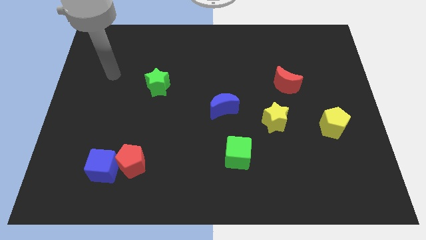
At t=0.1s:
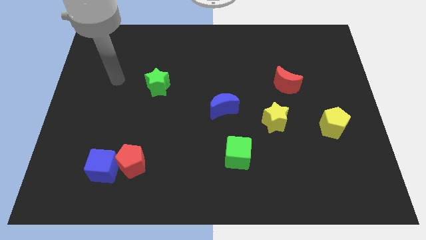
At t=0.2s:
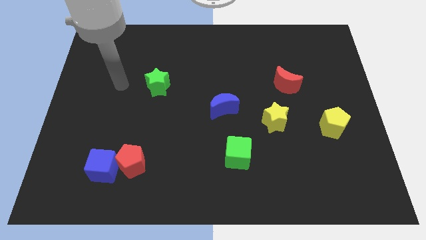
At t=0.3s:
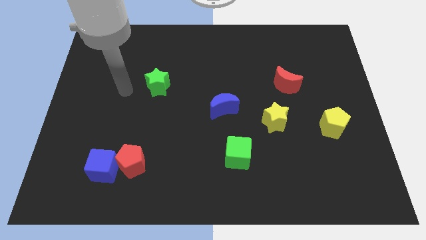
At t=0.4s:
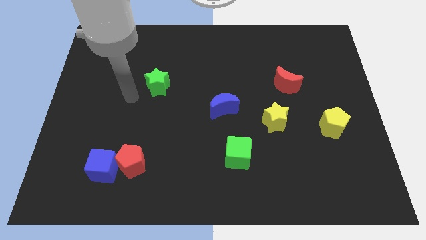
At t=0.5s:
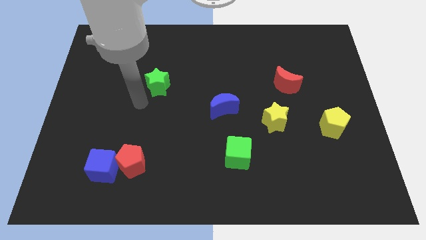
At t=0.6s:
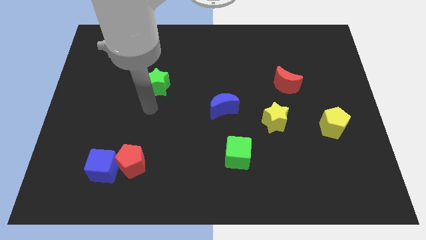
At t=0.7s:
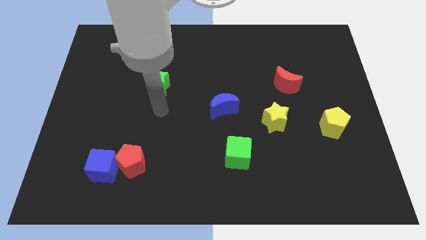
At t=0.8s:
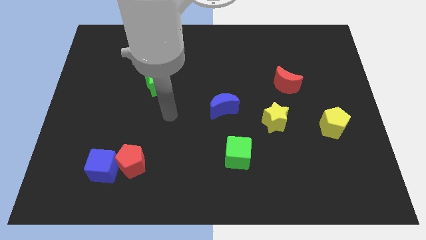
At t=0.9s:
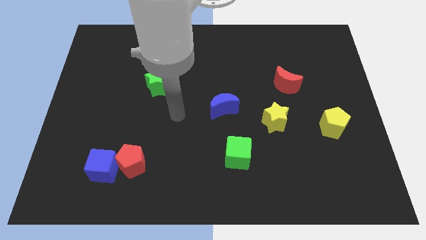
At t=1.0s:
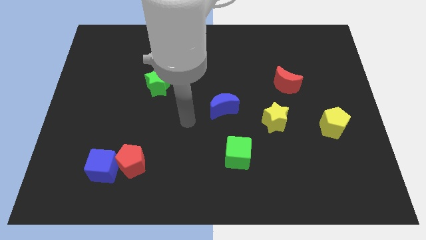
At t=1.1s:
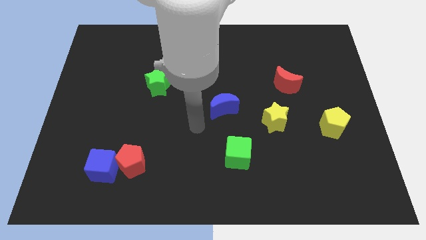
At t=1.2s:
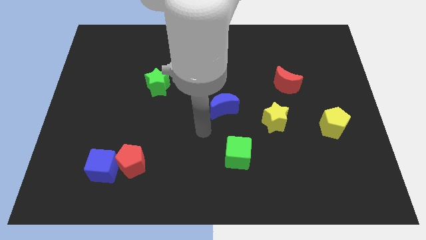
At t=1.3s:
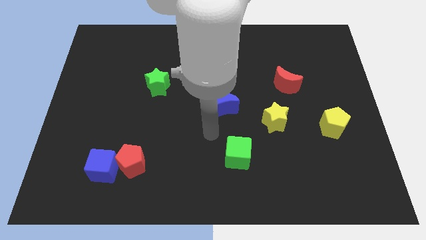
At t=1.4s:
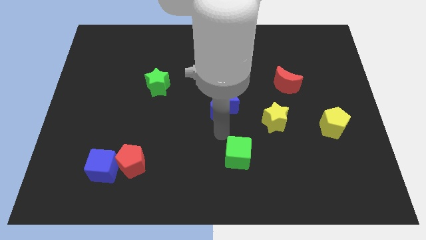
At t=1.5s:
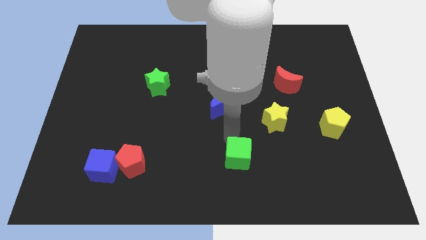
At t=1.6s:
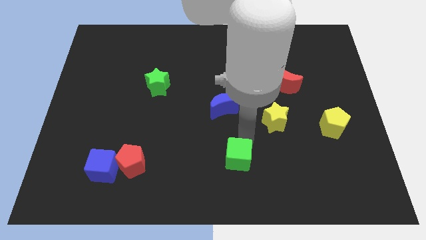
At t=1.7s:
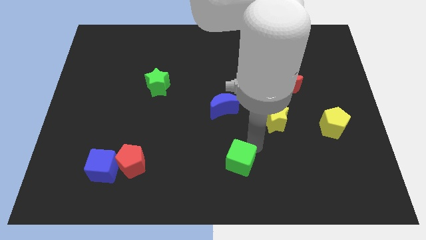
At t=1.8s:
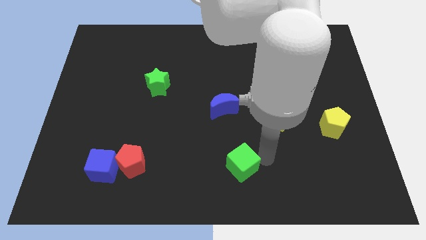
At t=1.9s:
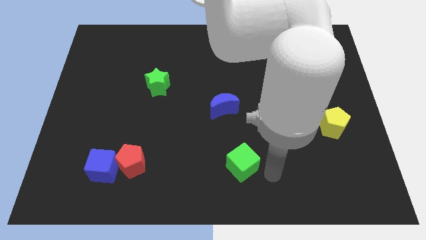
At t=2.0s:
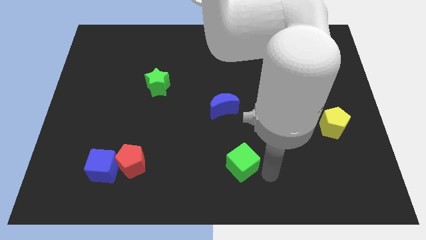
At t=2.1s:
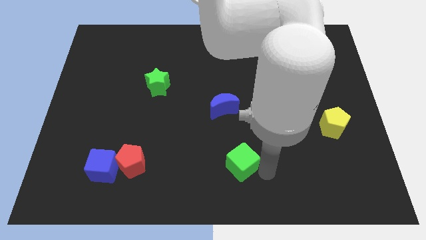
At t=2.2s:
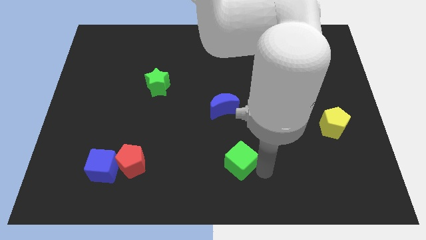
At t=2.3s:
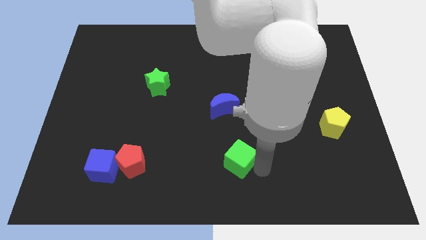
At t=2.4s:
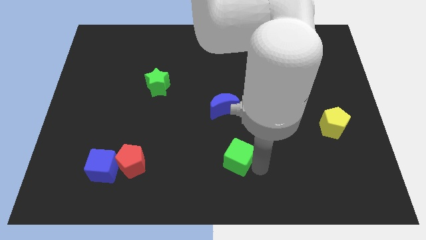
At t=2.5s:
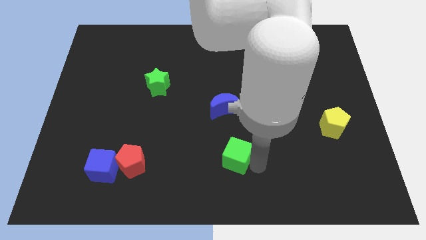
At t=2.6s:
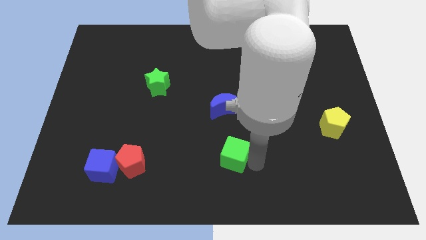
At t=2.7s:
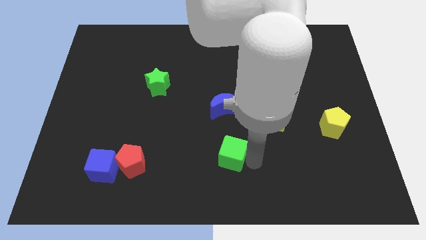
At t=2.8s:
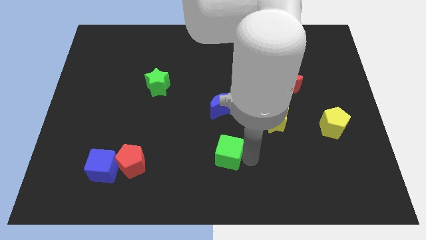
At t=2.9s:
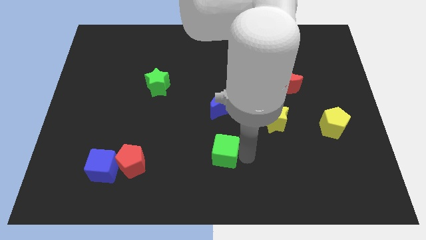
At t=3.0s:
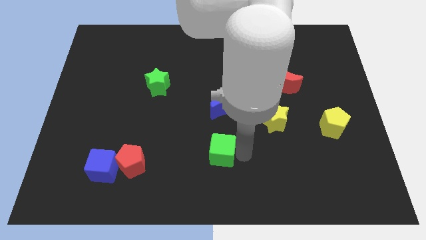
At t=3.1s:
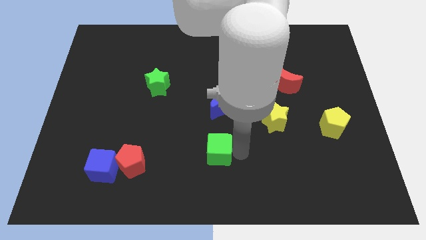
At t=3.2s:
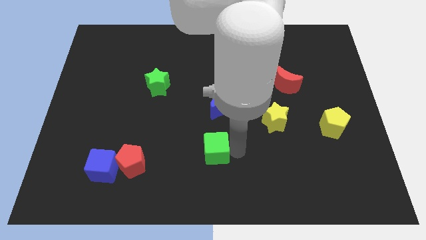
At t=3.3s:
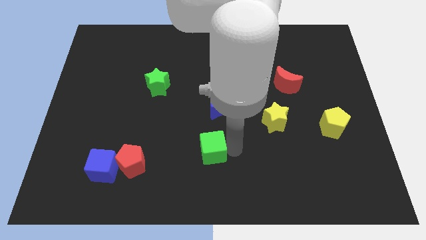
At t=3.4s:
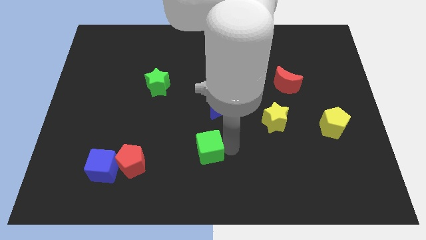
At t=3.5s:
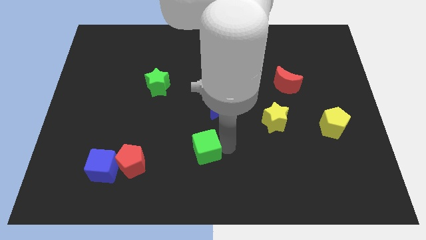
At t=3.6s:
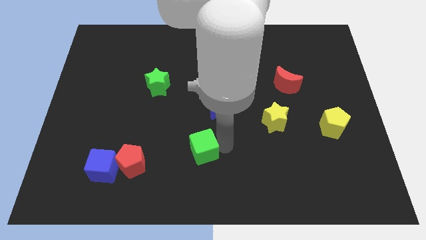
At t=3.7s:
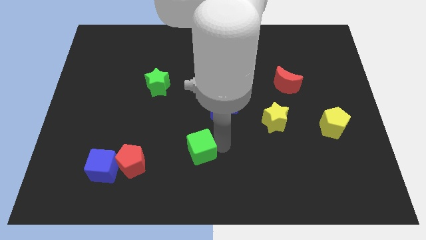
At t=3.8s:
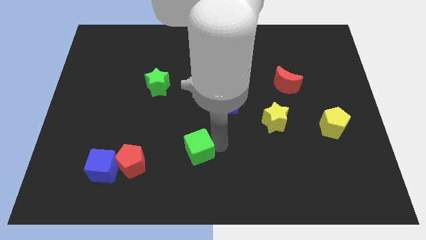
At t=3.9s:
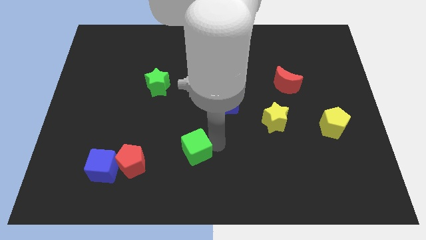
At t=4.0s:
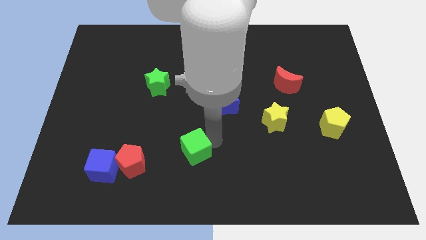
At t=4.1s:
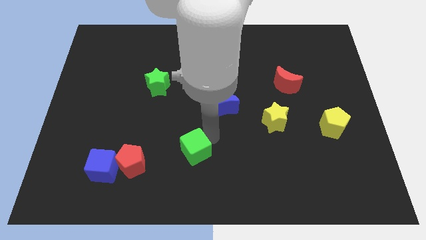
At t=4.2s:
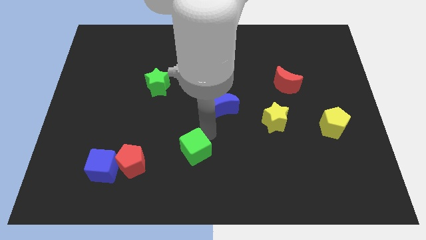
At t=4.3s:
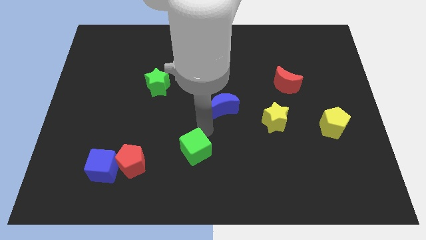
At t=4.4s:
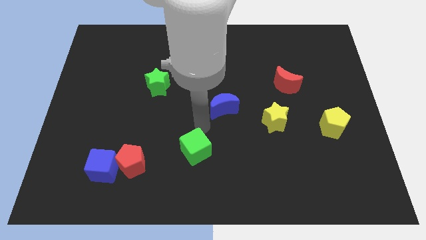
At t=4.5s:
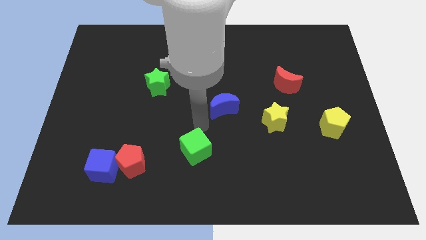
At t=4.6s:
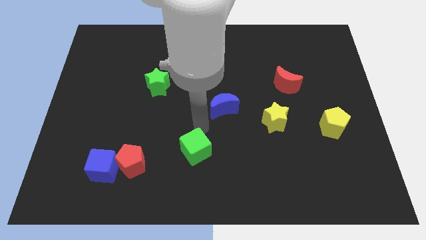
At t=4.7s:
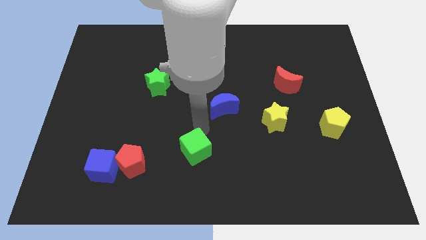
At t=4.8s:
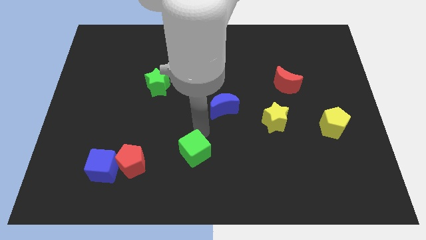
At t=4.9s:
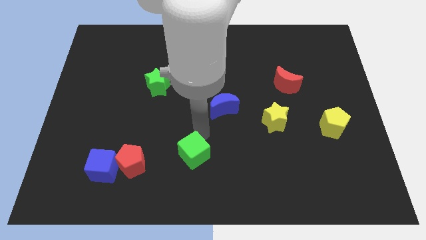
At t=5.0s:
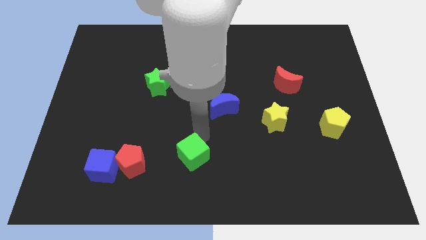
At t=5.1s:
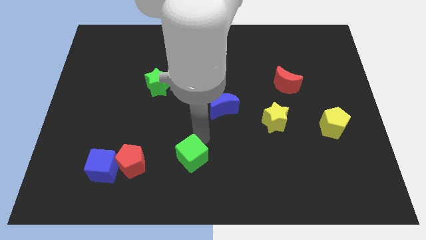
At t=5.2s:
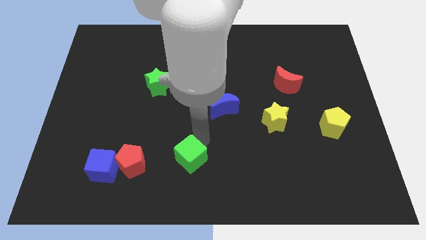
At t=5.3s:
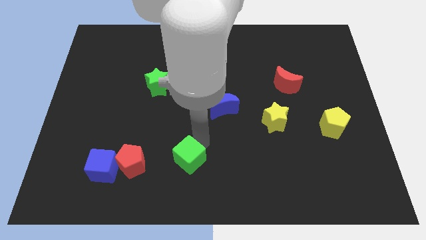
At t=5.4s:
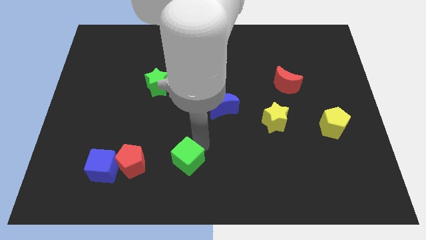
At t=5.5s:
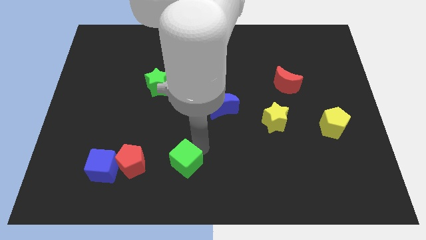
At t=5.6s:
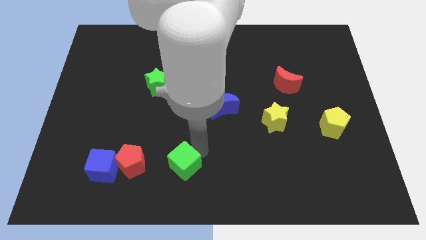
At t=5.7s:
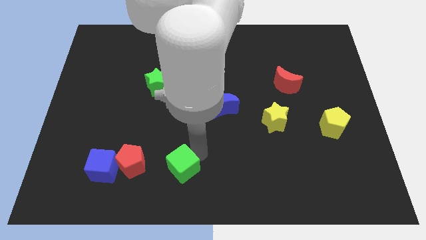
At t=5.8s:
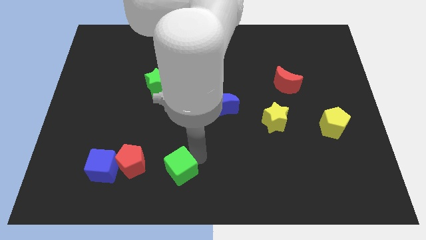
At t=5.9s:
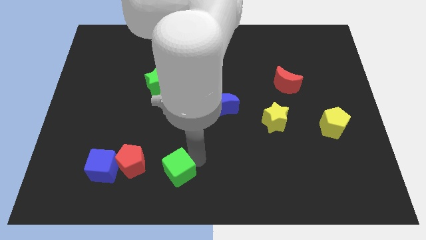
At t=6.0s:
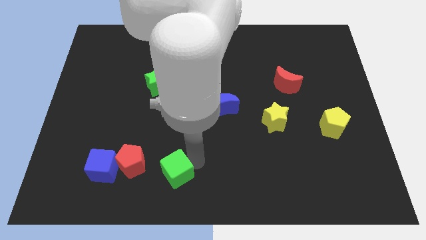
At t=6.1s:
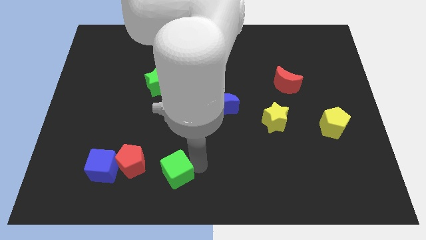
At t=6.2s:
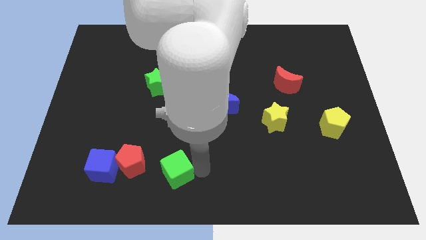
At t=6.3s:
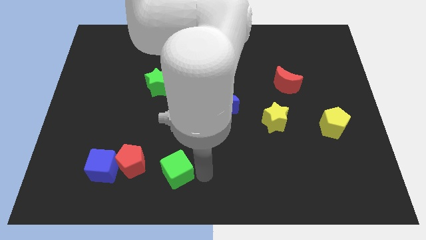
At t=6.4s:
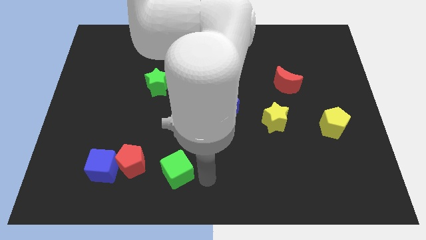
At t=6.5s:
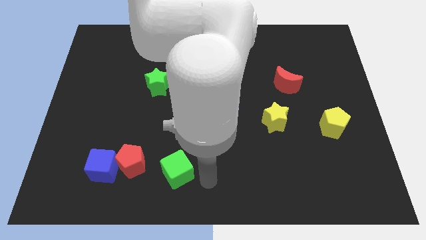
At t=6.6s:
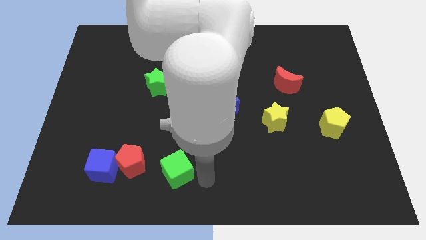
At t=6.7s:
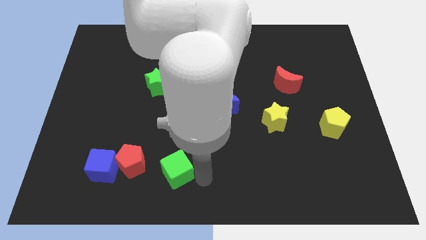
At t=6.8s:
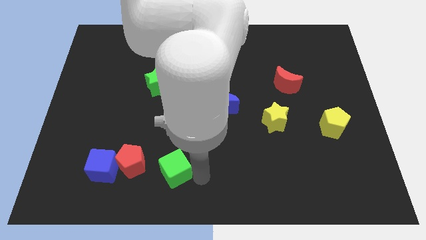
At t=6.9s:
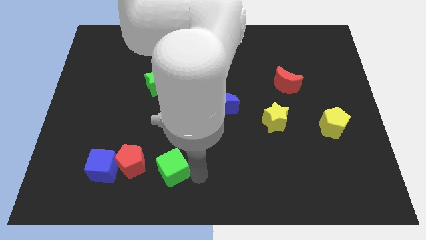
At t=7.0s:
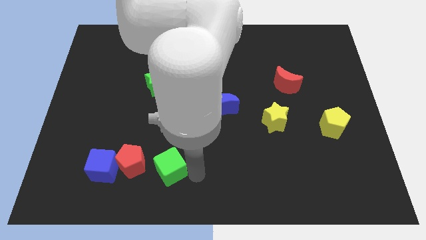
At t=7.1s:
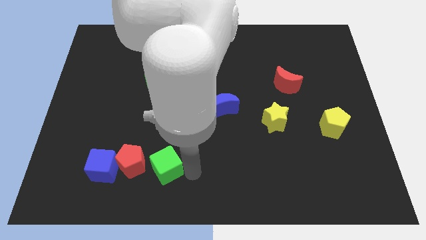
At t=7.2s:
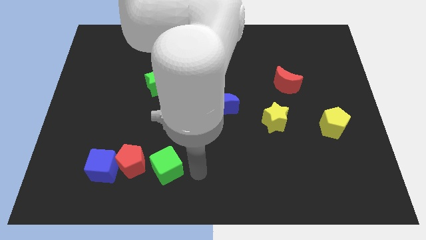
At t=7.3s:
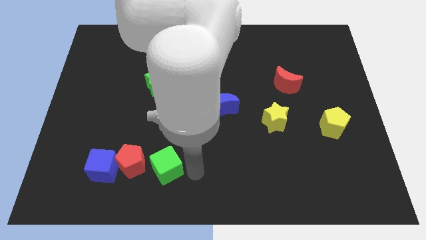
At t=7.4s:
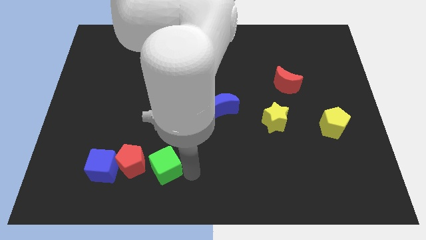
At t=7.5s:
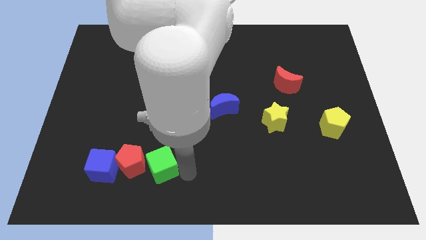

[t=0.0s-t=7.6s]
move the green cube towards the red pentagon
